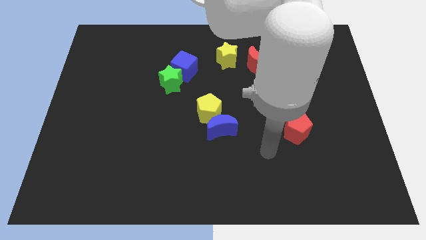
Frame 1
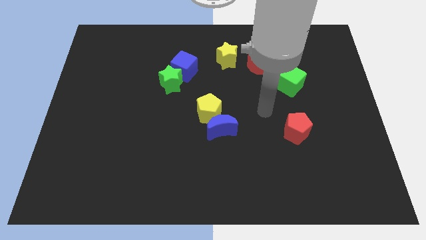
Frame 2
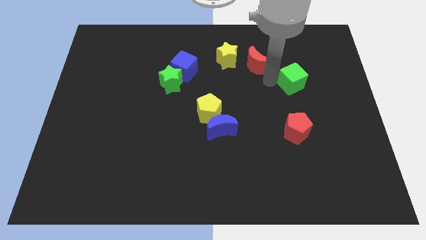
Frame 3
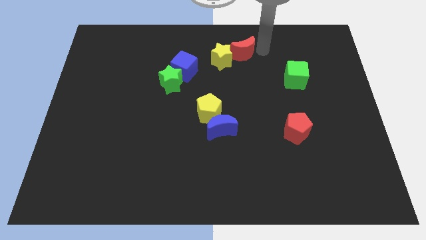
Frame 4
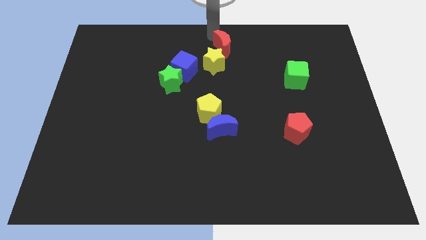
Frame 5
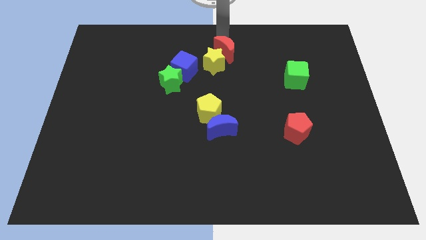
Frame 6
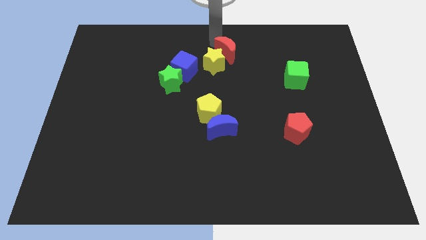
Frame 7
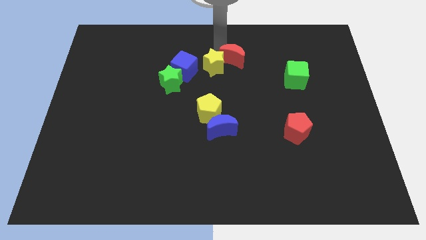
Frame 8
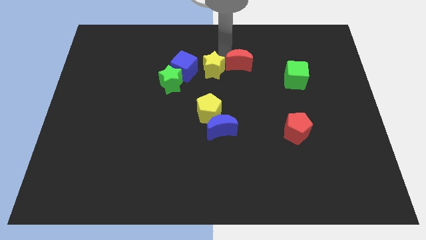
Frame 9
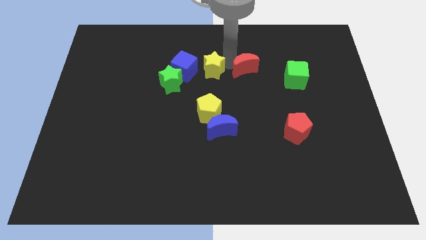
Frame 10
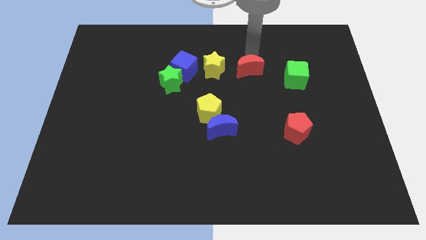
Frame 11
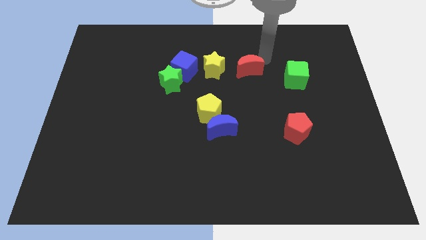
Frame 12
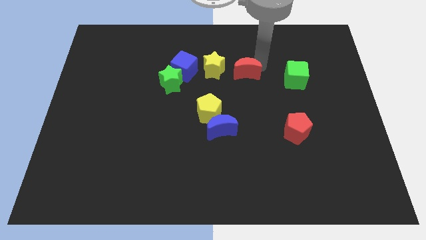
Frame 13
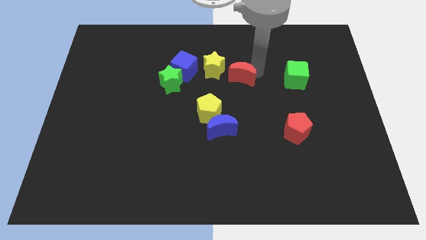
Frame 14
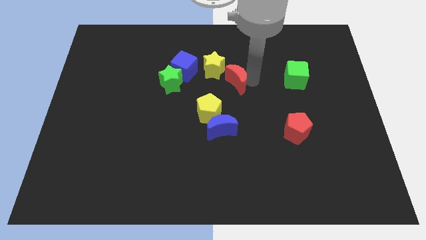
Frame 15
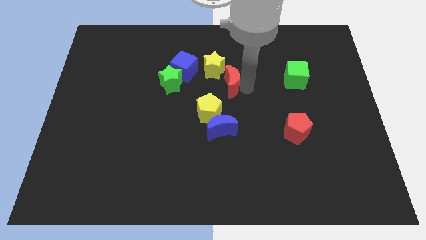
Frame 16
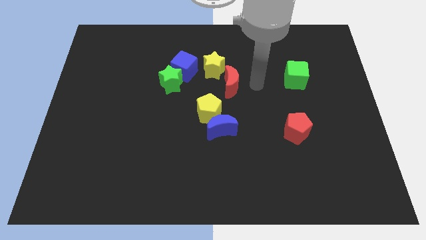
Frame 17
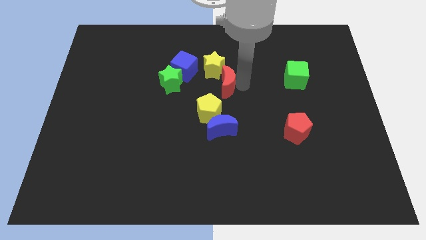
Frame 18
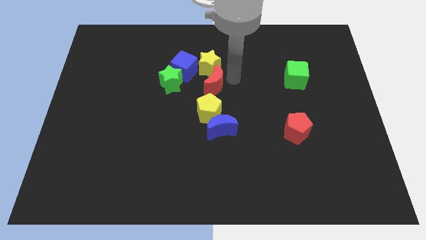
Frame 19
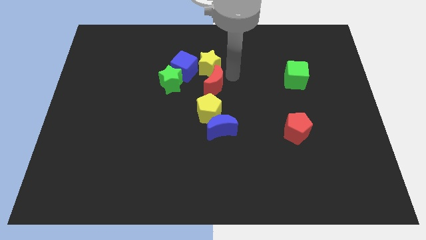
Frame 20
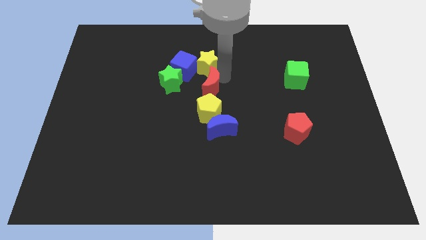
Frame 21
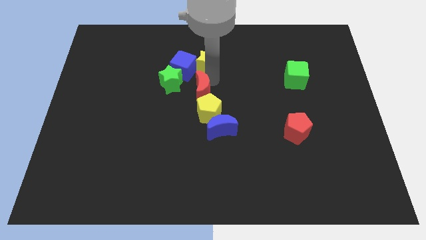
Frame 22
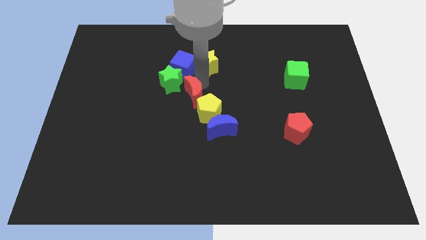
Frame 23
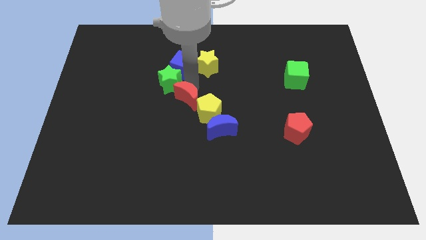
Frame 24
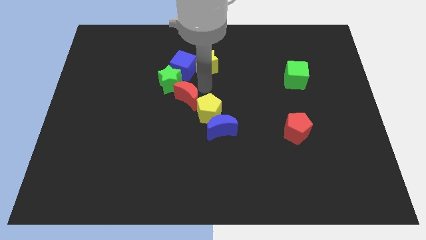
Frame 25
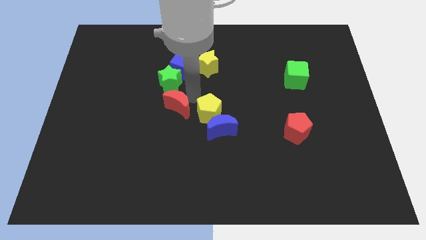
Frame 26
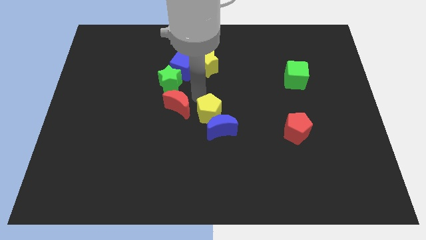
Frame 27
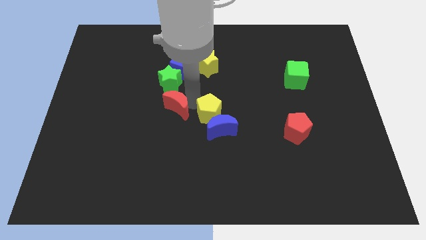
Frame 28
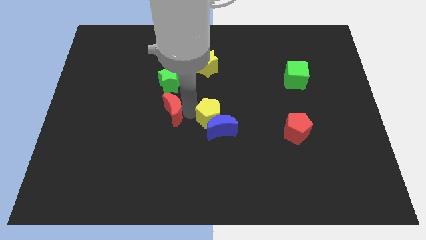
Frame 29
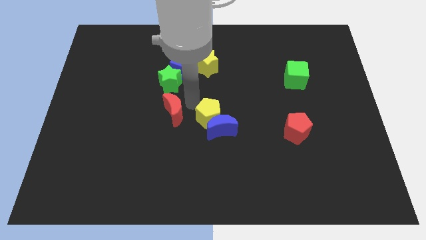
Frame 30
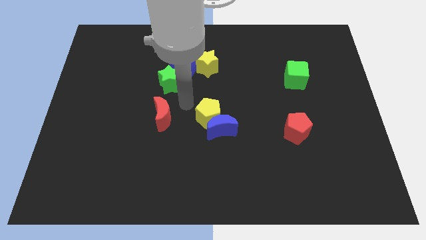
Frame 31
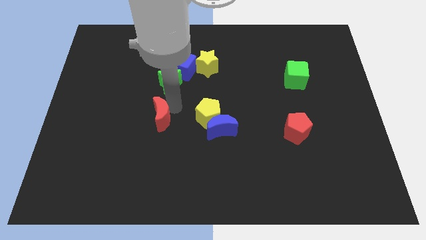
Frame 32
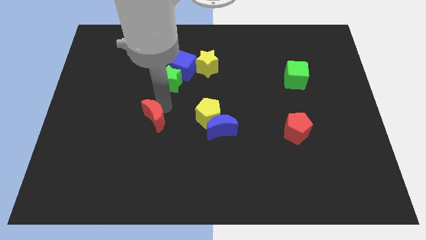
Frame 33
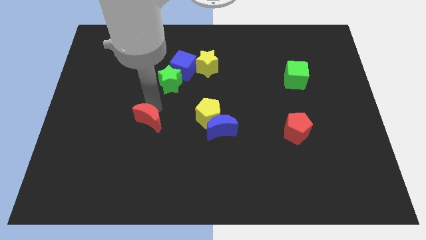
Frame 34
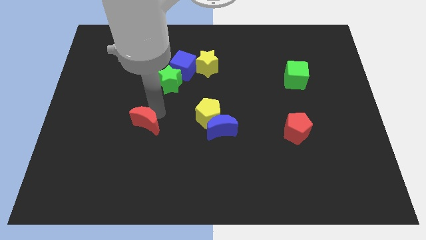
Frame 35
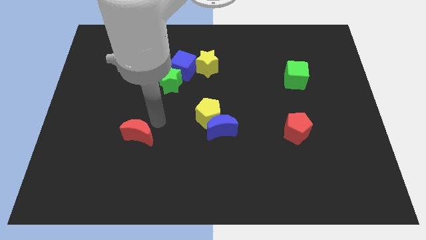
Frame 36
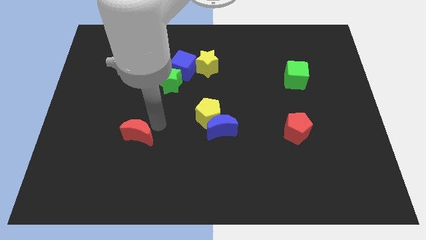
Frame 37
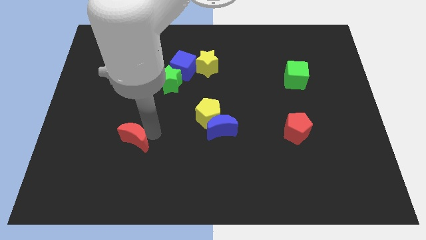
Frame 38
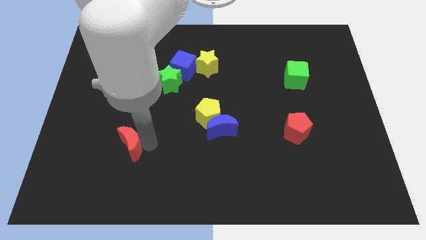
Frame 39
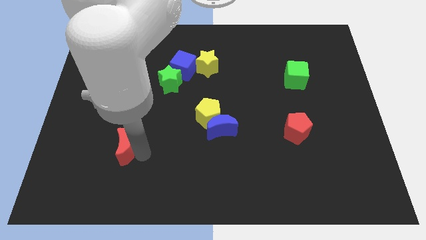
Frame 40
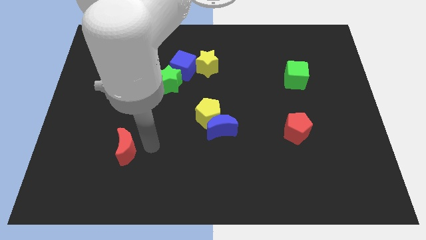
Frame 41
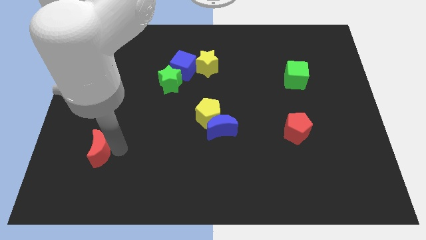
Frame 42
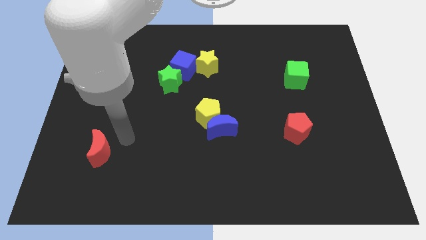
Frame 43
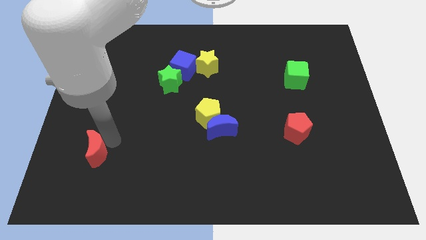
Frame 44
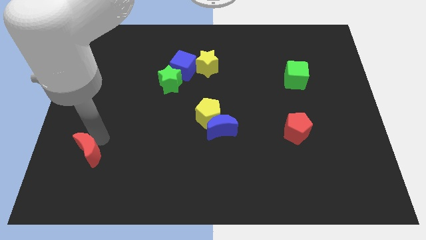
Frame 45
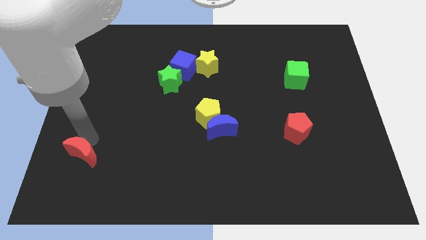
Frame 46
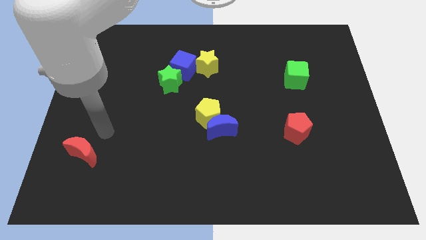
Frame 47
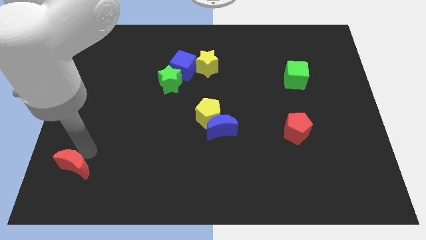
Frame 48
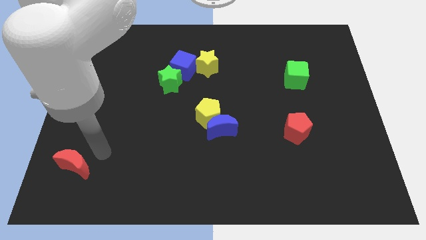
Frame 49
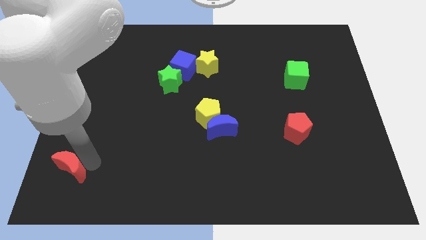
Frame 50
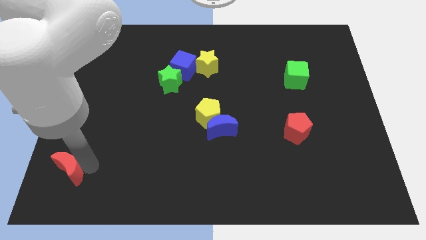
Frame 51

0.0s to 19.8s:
push the red moon to the lower left corner
